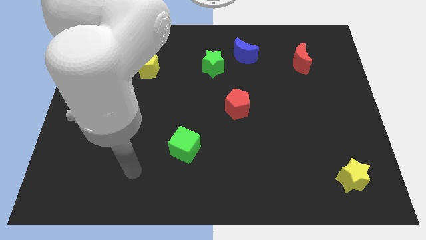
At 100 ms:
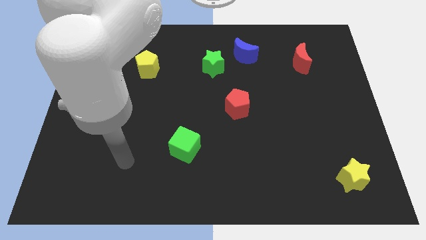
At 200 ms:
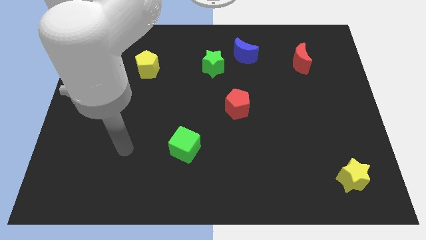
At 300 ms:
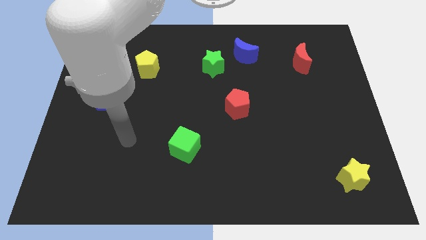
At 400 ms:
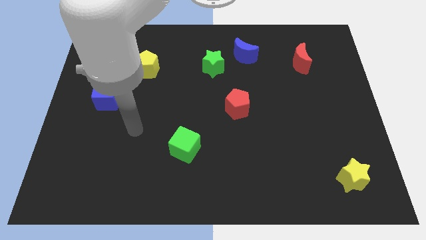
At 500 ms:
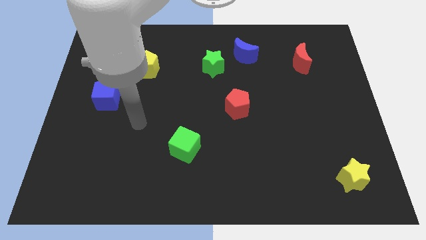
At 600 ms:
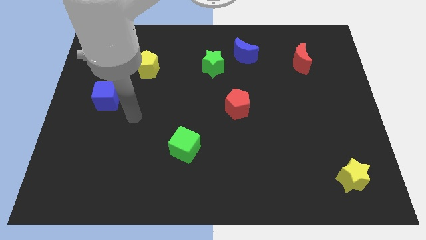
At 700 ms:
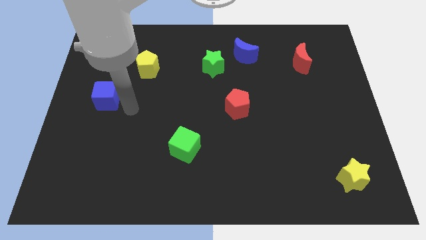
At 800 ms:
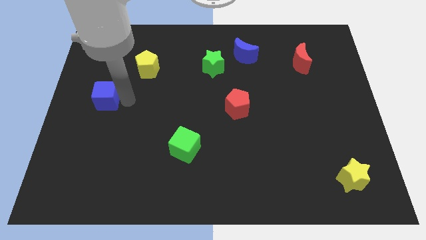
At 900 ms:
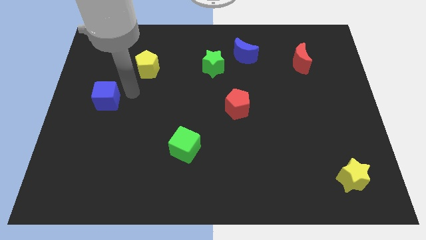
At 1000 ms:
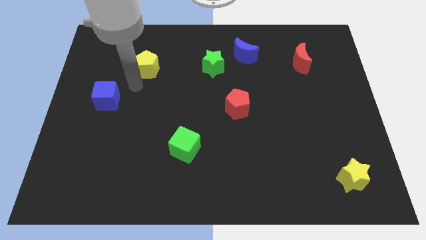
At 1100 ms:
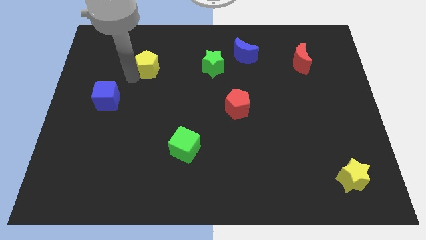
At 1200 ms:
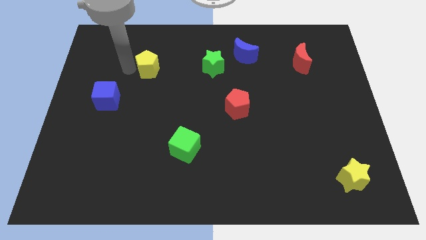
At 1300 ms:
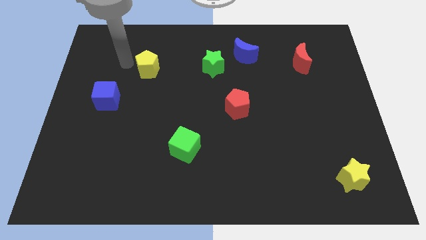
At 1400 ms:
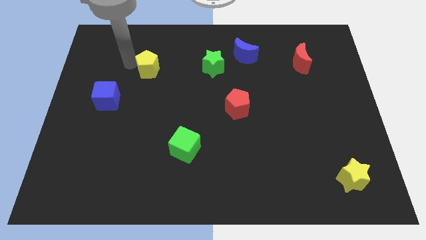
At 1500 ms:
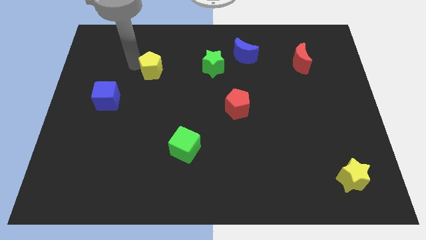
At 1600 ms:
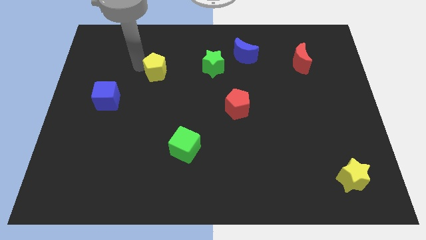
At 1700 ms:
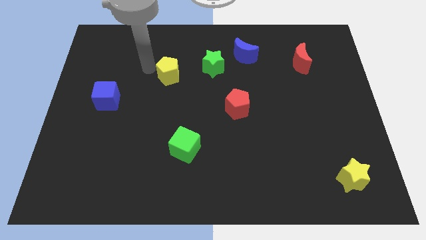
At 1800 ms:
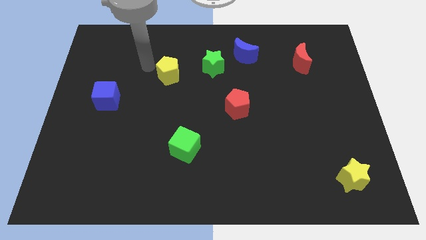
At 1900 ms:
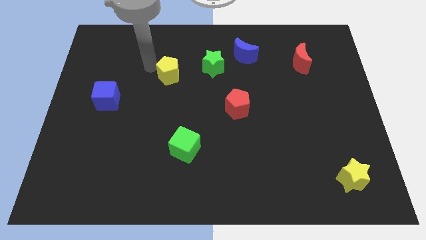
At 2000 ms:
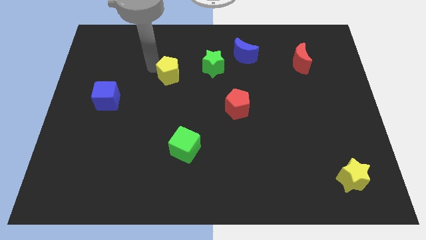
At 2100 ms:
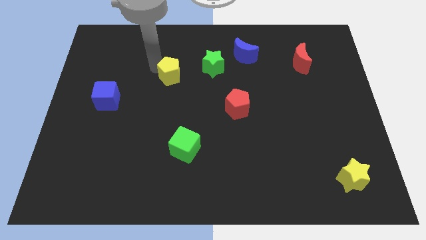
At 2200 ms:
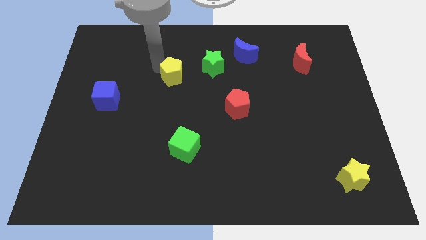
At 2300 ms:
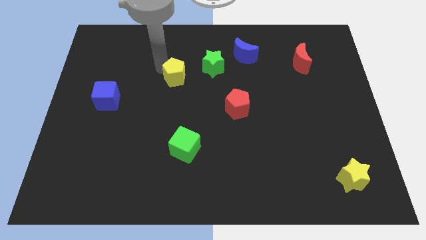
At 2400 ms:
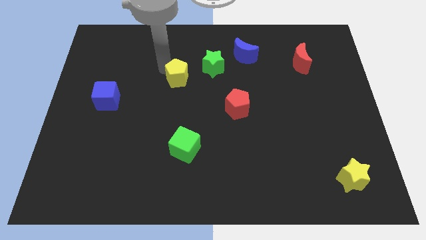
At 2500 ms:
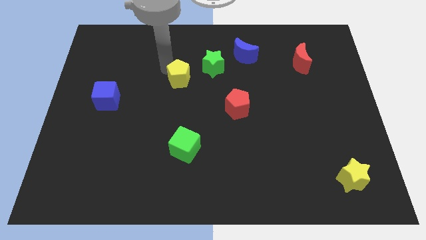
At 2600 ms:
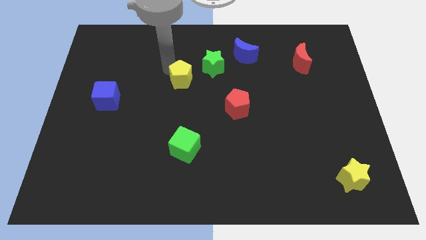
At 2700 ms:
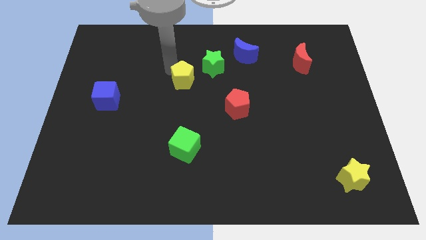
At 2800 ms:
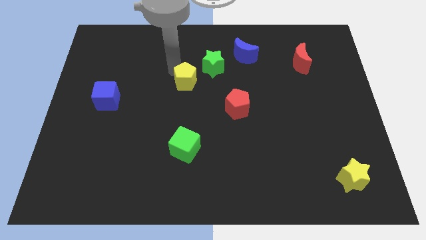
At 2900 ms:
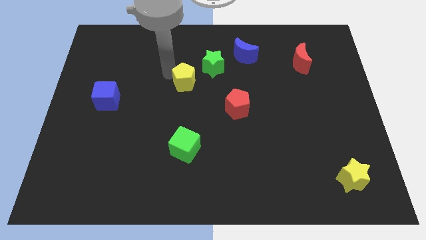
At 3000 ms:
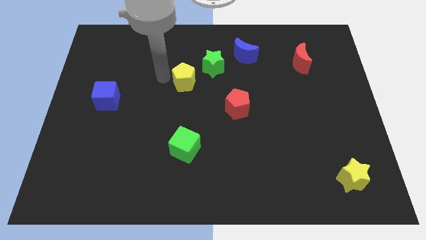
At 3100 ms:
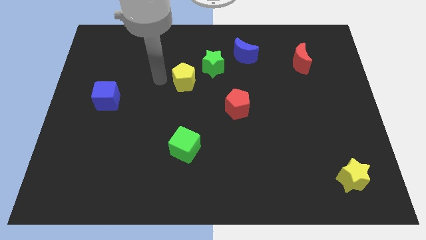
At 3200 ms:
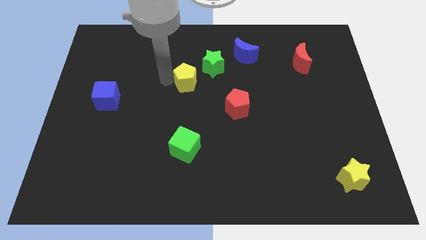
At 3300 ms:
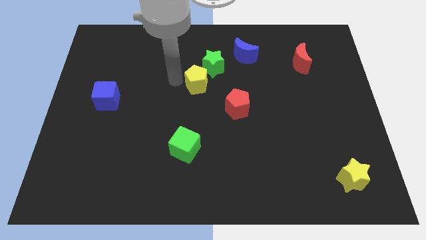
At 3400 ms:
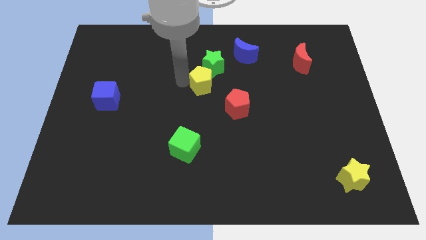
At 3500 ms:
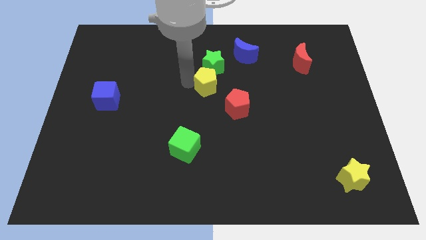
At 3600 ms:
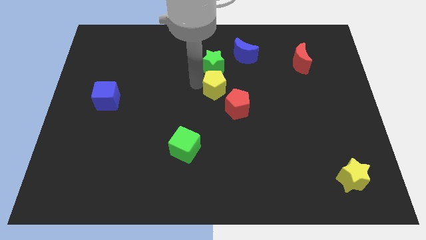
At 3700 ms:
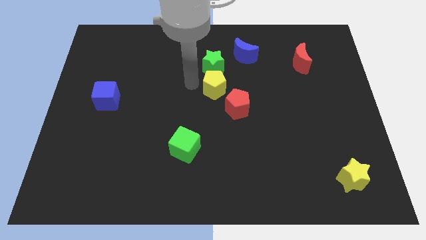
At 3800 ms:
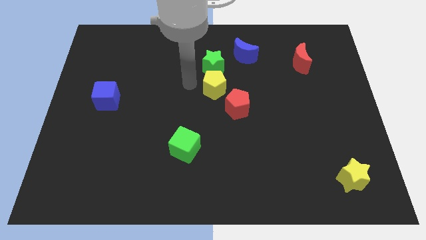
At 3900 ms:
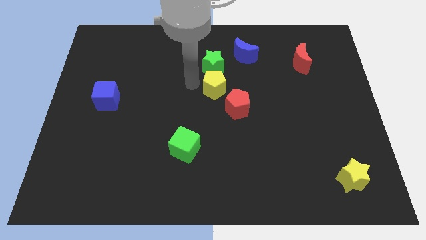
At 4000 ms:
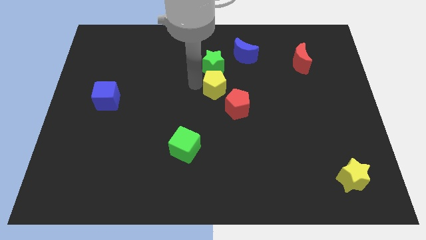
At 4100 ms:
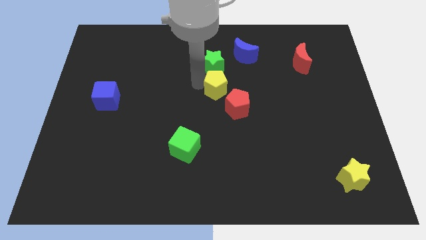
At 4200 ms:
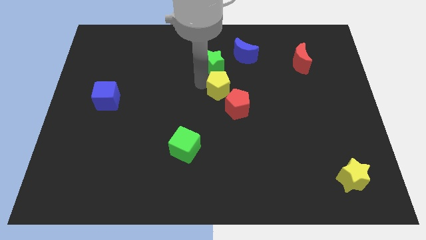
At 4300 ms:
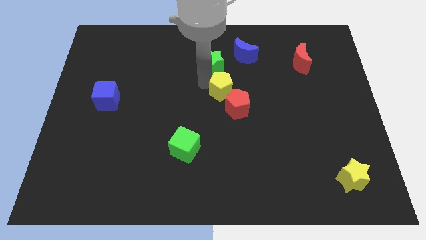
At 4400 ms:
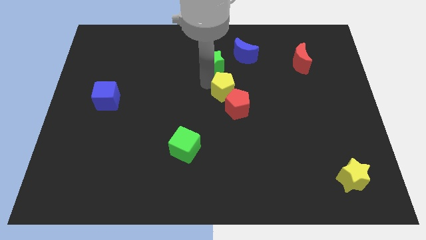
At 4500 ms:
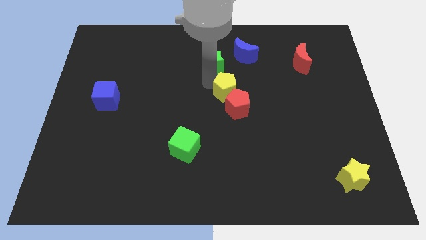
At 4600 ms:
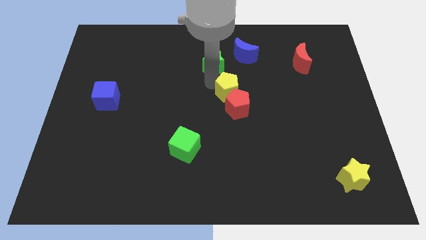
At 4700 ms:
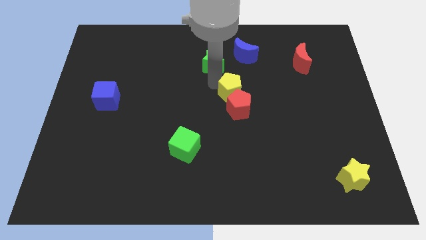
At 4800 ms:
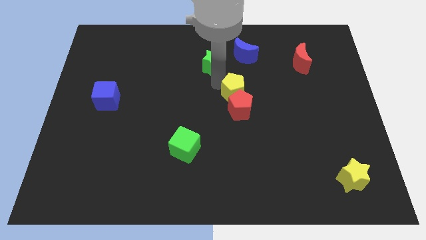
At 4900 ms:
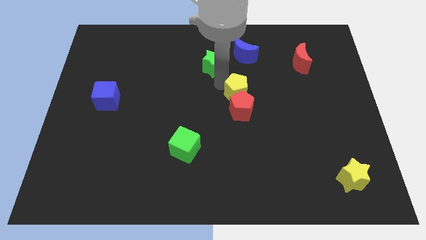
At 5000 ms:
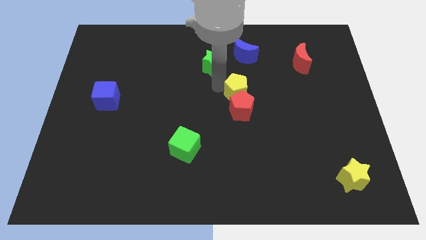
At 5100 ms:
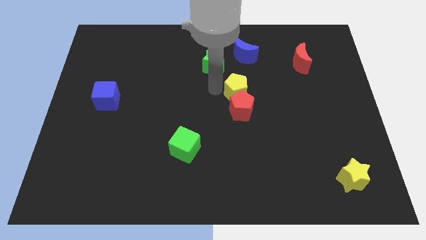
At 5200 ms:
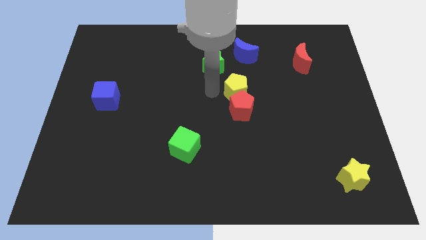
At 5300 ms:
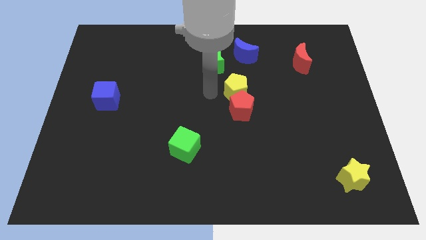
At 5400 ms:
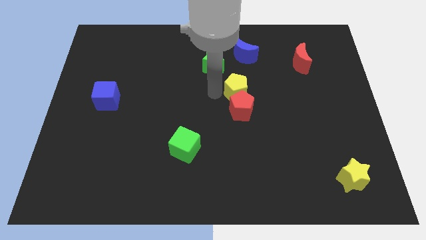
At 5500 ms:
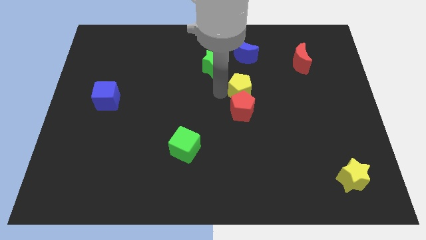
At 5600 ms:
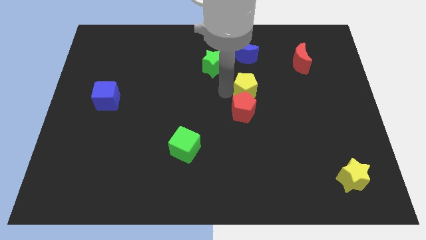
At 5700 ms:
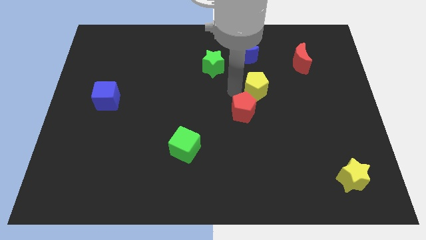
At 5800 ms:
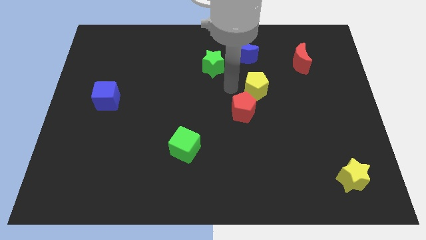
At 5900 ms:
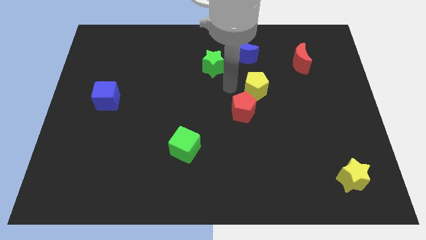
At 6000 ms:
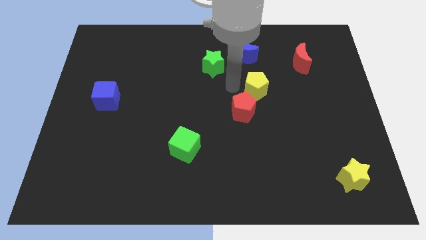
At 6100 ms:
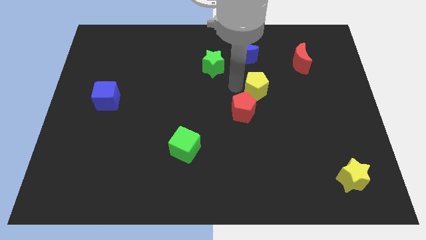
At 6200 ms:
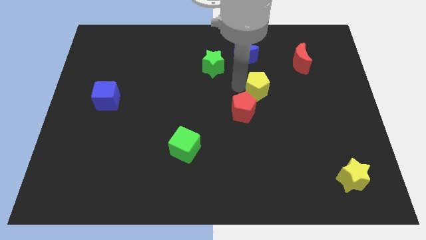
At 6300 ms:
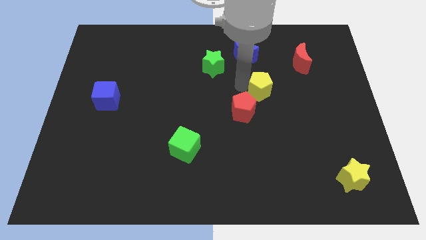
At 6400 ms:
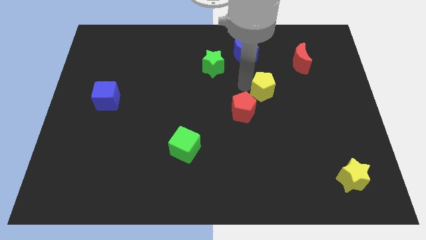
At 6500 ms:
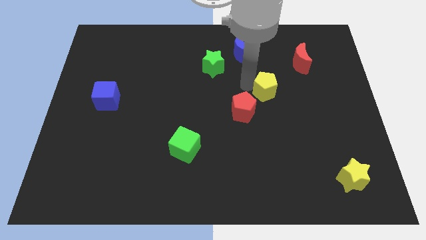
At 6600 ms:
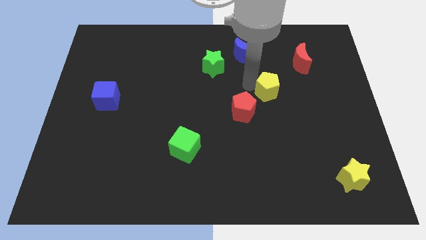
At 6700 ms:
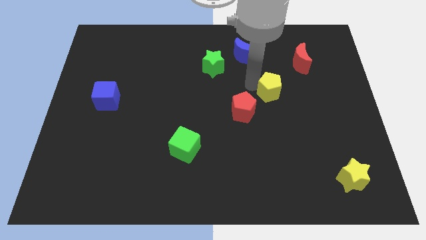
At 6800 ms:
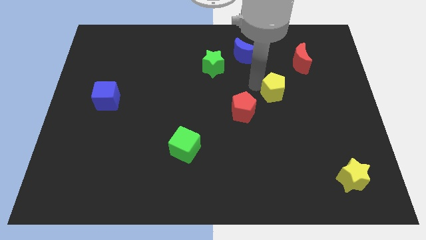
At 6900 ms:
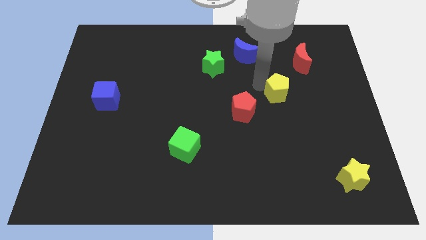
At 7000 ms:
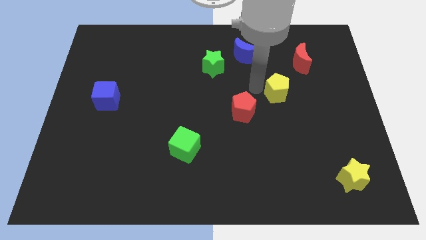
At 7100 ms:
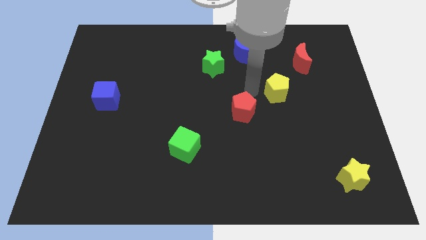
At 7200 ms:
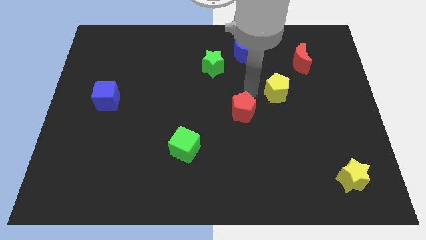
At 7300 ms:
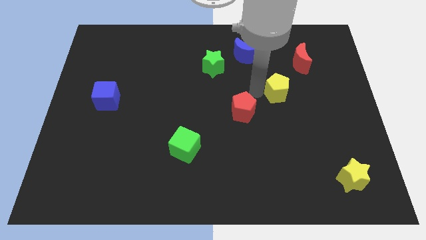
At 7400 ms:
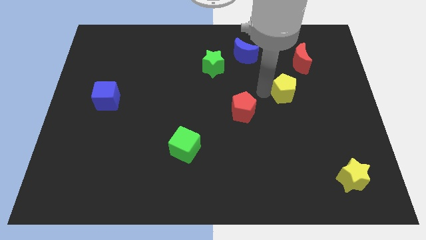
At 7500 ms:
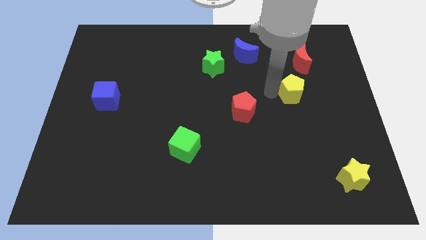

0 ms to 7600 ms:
slide the yellow pentagon below the red moon
